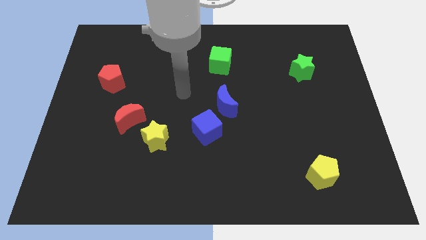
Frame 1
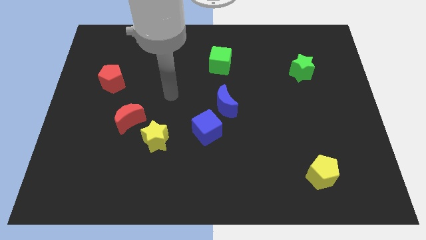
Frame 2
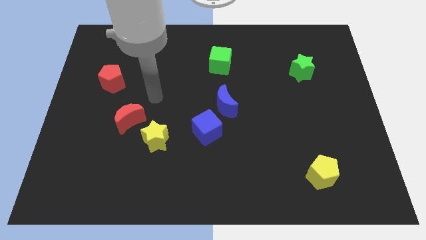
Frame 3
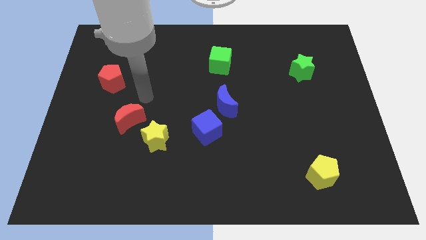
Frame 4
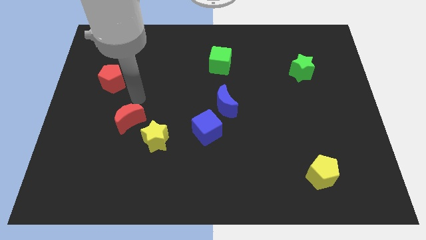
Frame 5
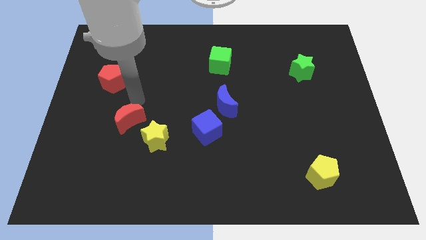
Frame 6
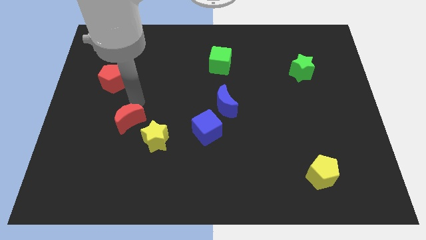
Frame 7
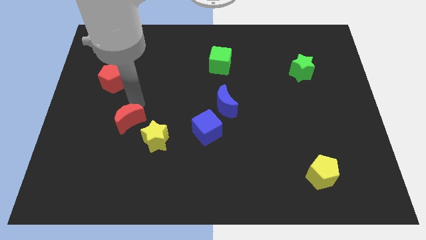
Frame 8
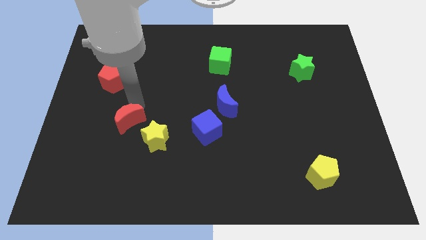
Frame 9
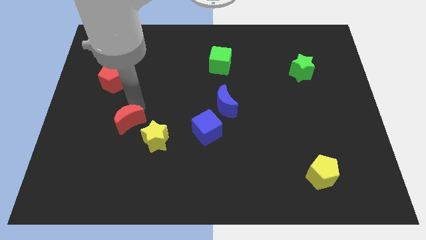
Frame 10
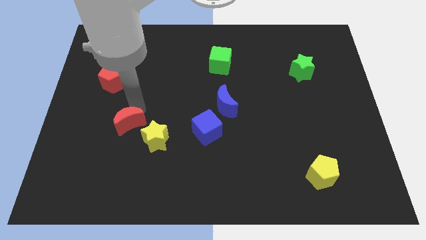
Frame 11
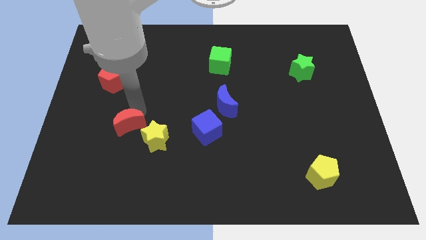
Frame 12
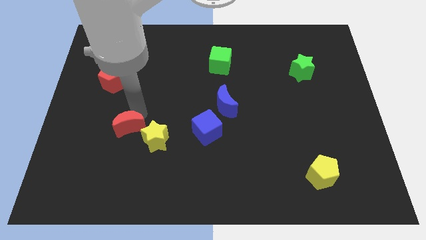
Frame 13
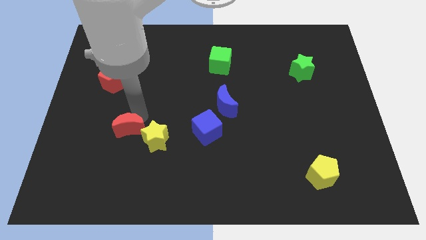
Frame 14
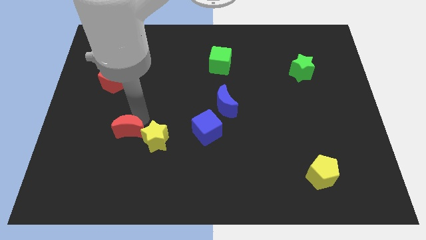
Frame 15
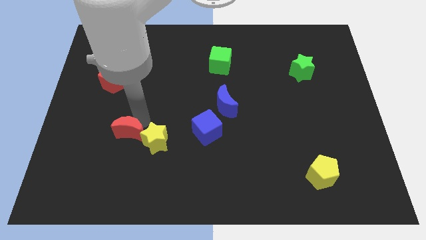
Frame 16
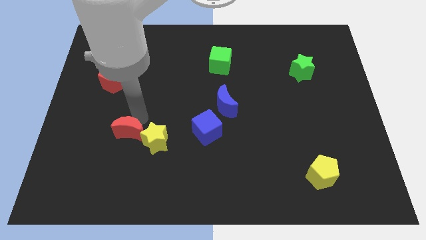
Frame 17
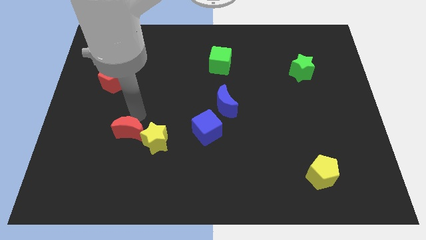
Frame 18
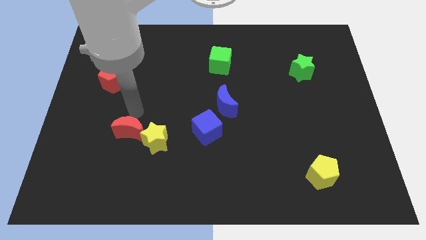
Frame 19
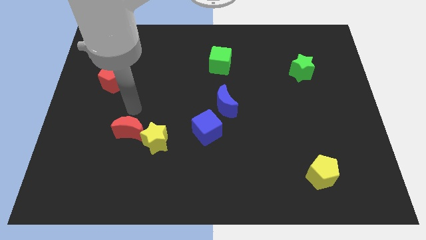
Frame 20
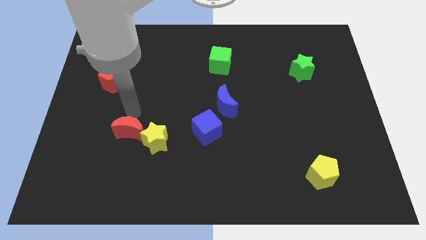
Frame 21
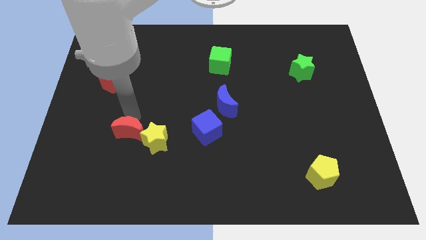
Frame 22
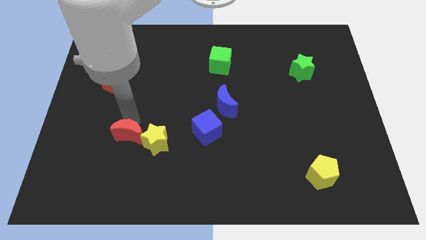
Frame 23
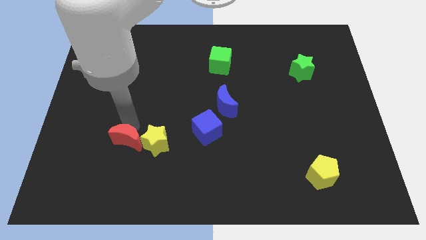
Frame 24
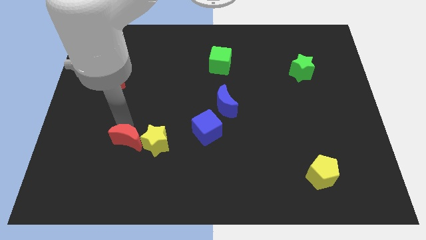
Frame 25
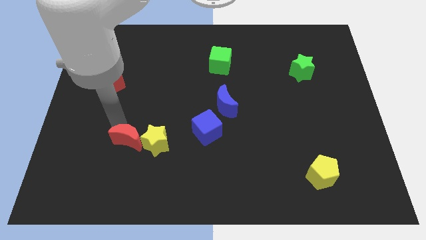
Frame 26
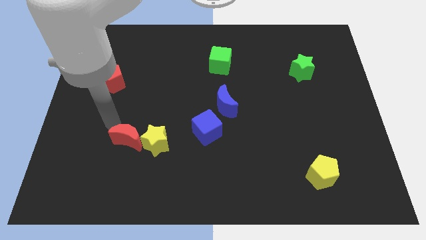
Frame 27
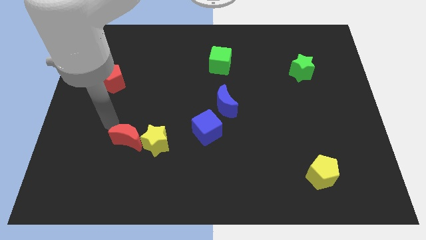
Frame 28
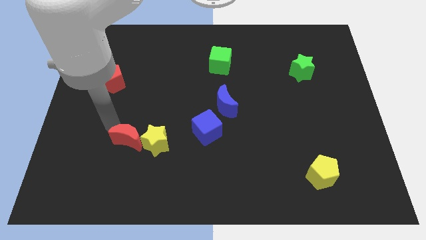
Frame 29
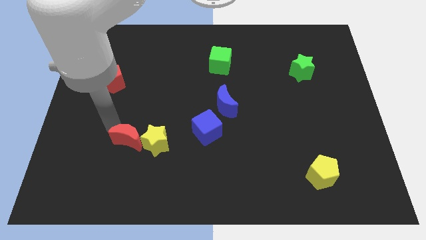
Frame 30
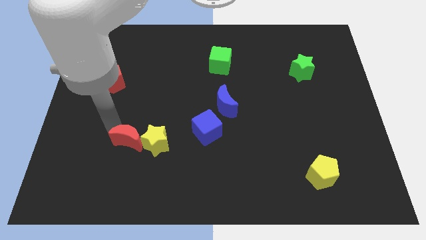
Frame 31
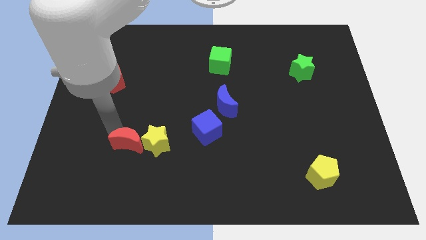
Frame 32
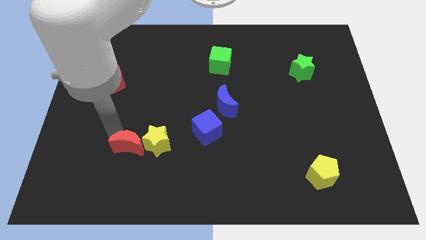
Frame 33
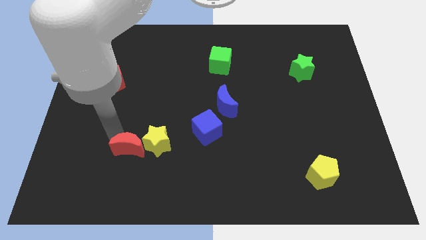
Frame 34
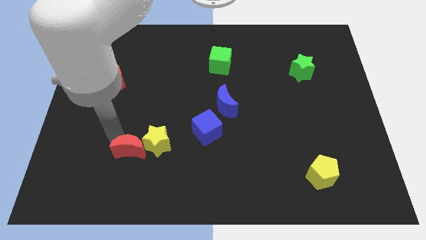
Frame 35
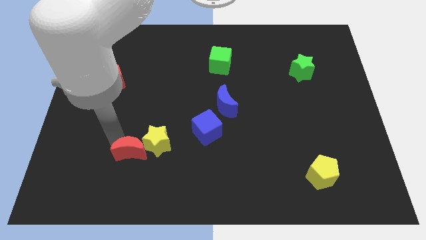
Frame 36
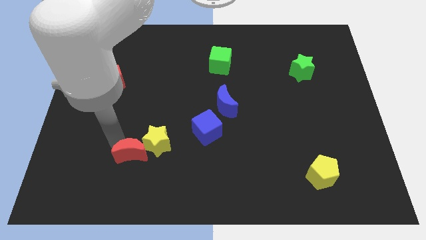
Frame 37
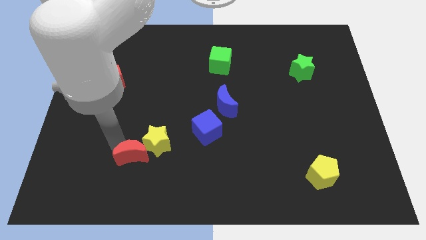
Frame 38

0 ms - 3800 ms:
push the red moon a little down and right

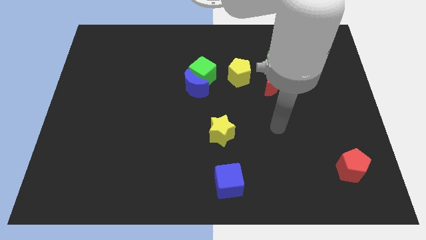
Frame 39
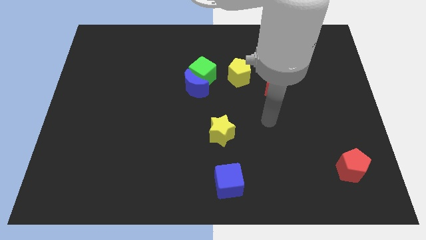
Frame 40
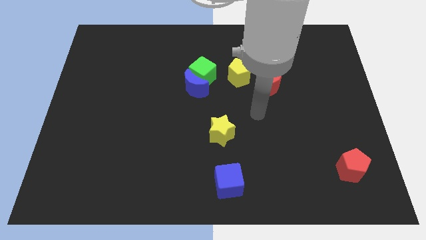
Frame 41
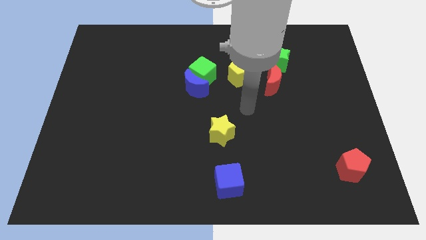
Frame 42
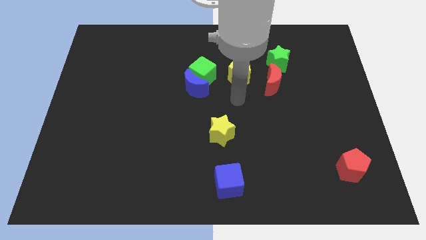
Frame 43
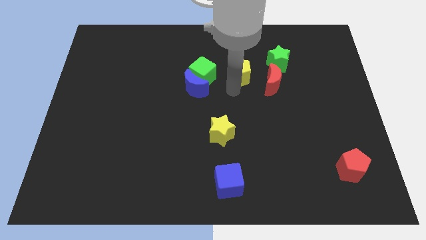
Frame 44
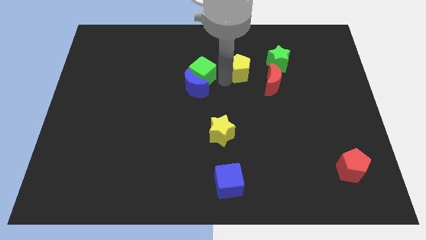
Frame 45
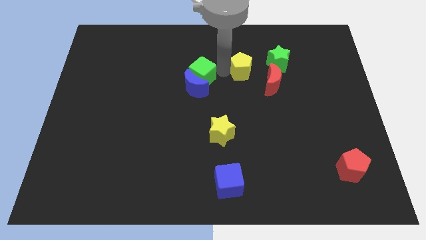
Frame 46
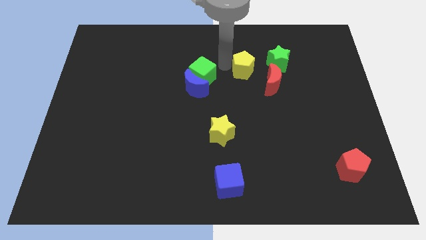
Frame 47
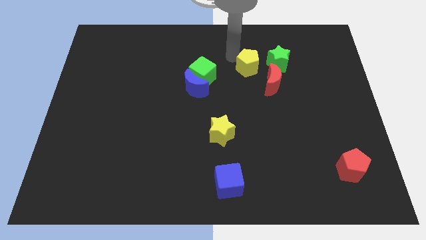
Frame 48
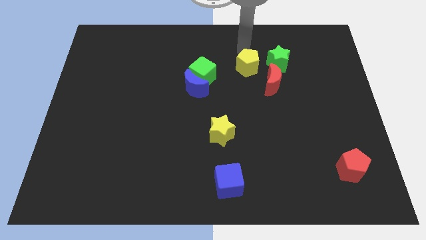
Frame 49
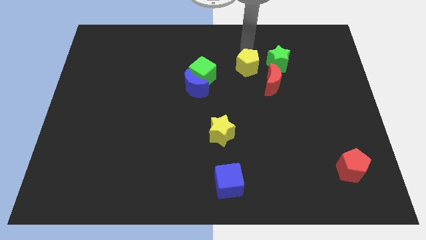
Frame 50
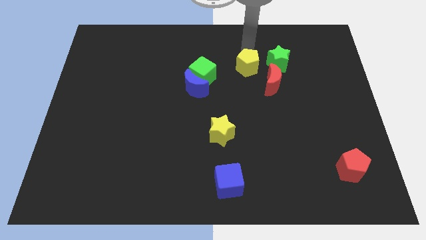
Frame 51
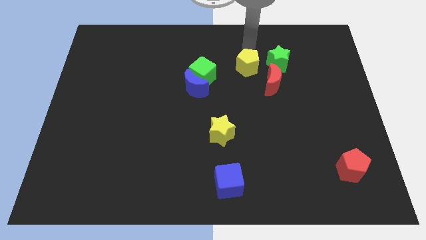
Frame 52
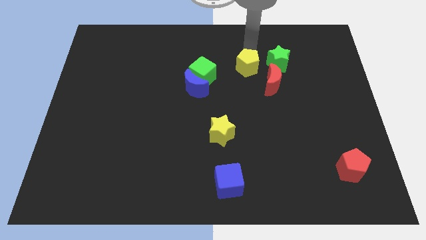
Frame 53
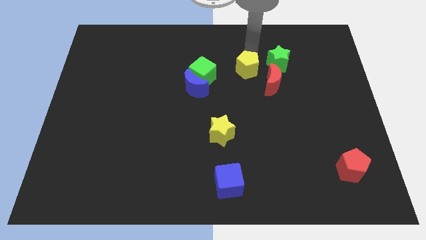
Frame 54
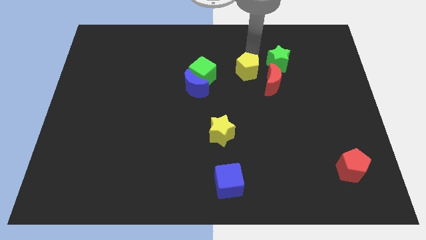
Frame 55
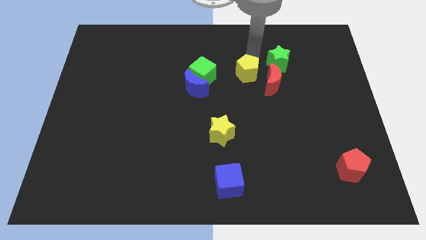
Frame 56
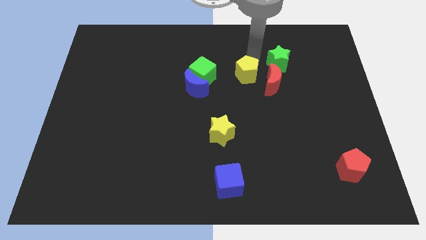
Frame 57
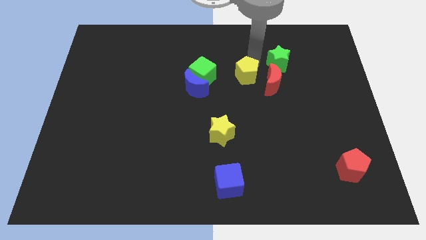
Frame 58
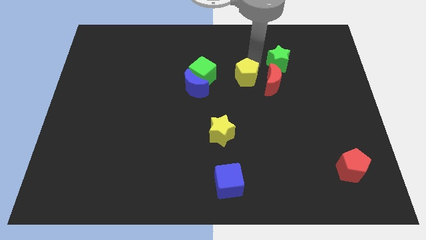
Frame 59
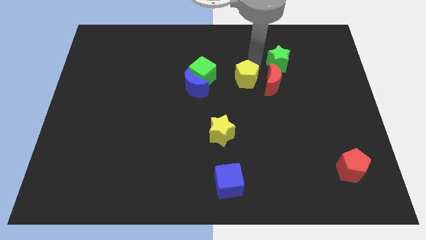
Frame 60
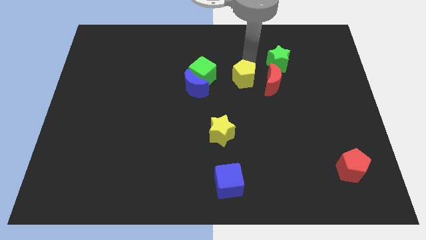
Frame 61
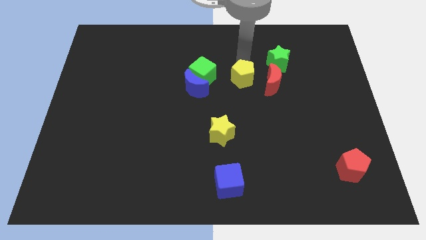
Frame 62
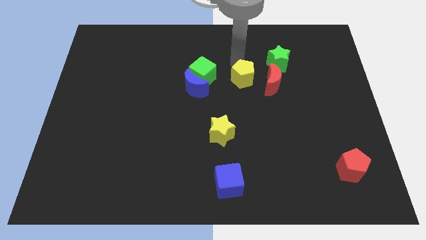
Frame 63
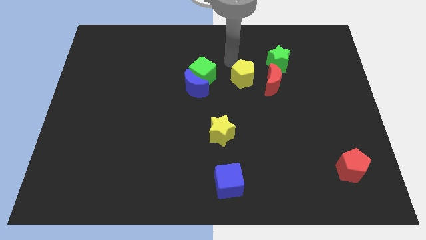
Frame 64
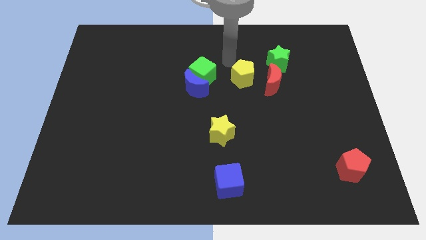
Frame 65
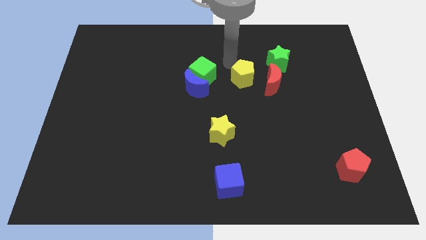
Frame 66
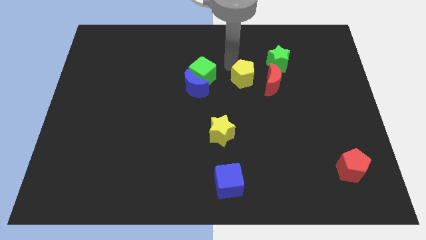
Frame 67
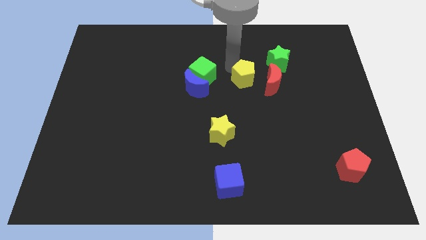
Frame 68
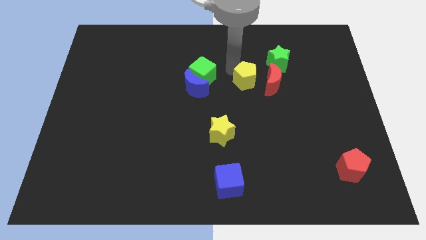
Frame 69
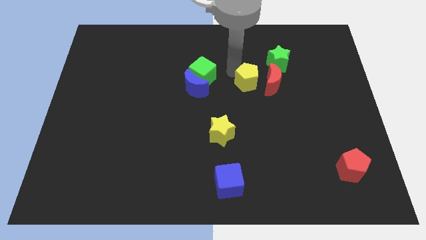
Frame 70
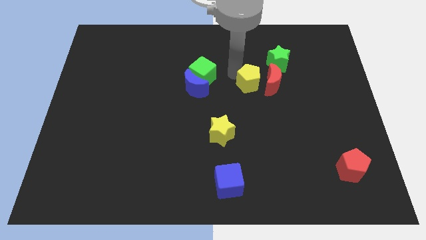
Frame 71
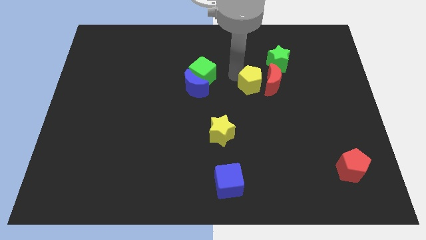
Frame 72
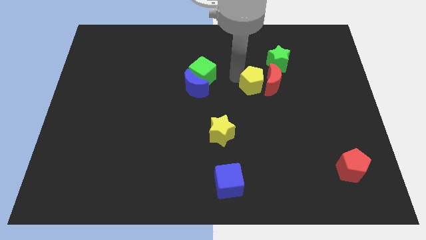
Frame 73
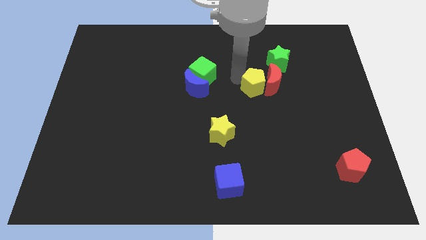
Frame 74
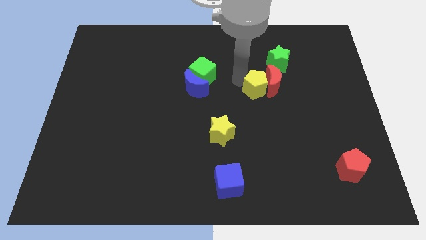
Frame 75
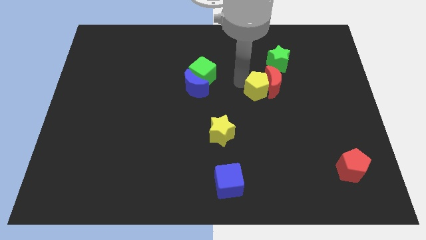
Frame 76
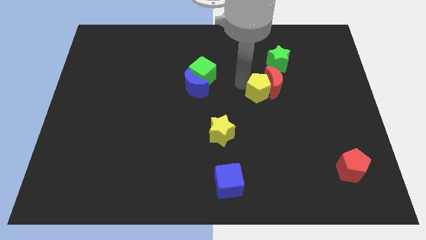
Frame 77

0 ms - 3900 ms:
slightly push the yellow pentagon diagonally down and right

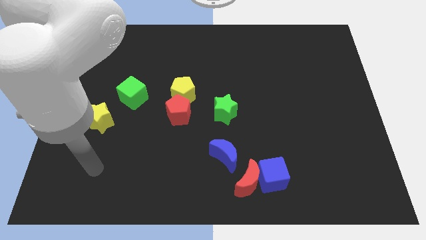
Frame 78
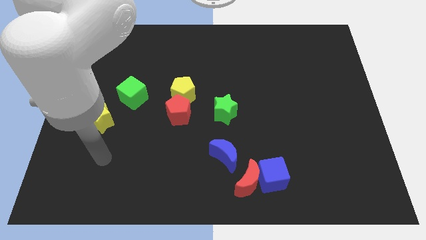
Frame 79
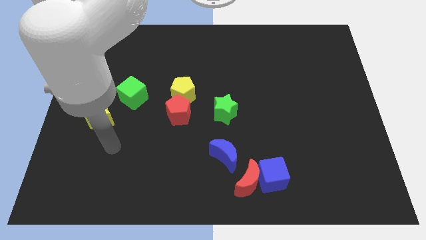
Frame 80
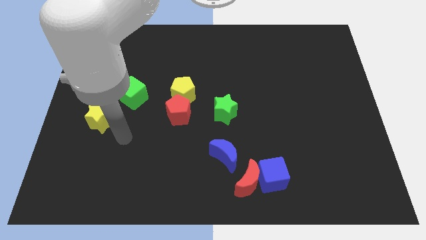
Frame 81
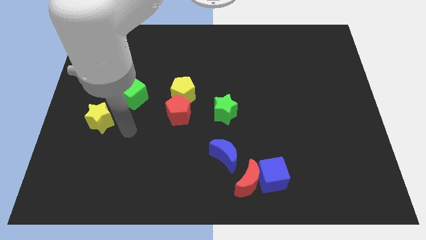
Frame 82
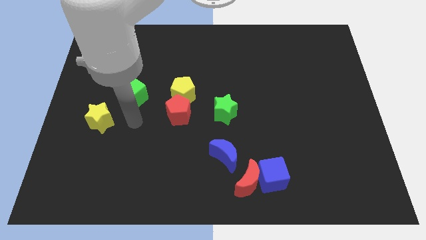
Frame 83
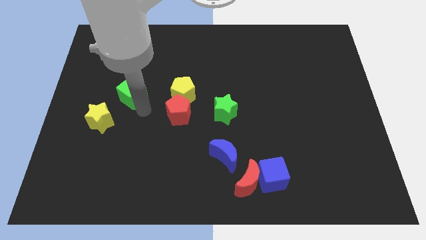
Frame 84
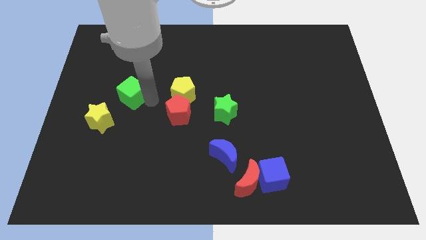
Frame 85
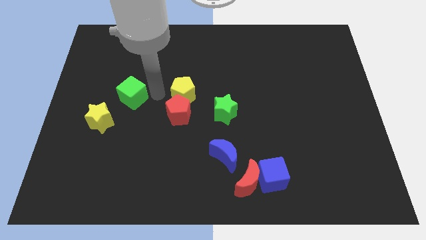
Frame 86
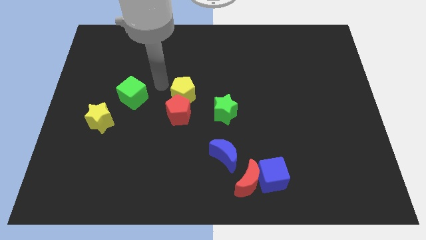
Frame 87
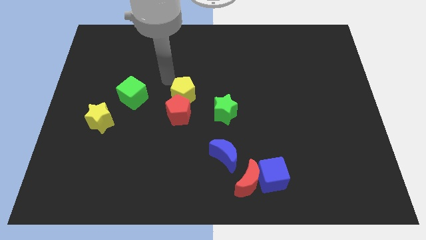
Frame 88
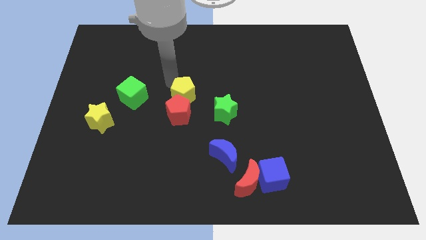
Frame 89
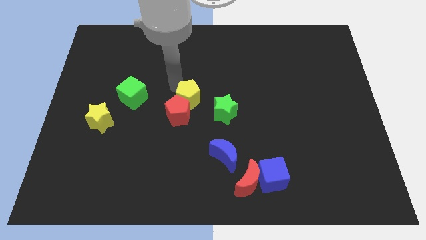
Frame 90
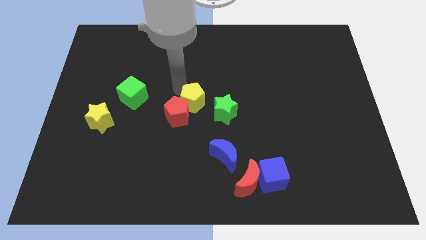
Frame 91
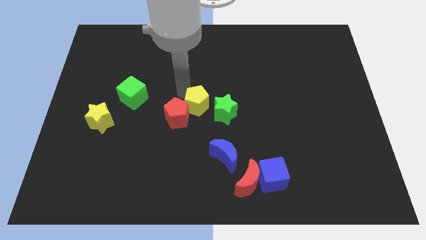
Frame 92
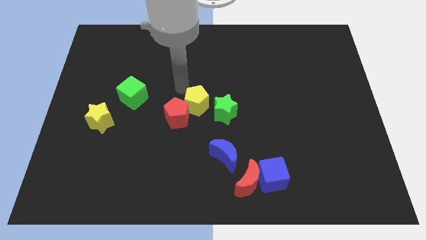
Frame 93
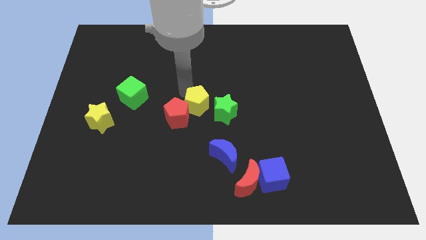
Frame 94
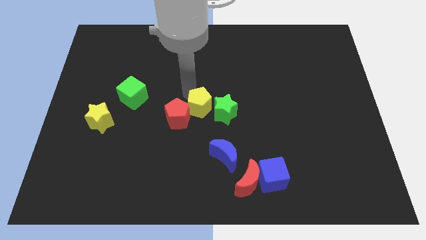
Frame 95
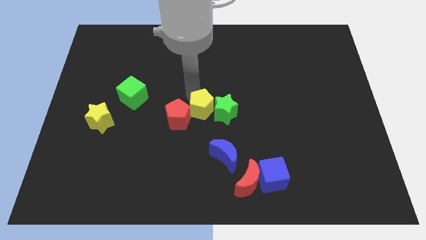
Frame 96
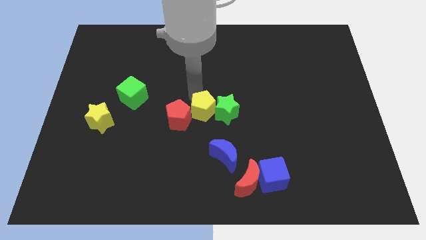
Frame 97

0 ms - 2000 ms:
slightly move the yellow pentagon down and then right
